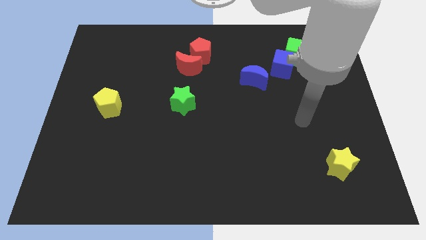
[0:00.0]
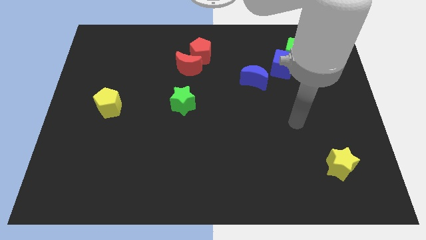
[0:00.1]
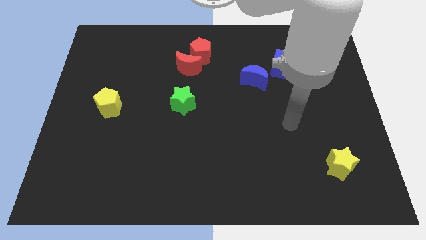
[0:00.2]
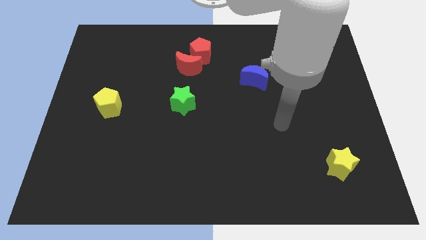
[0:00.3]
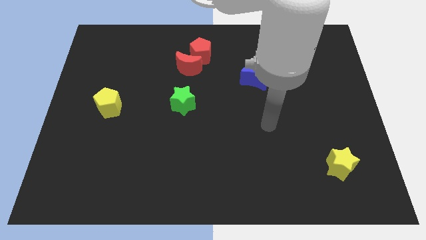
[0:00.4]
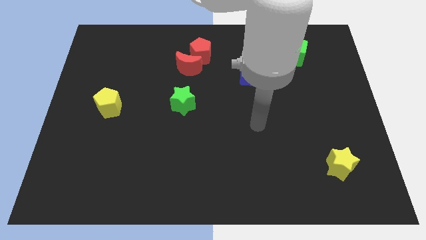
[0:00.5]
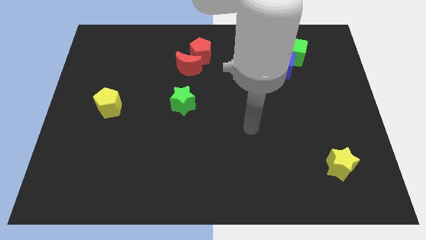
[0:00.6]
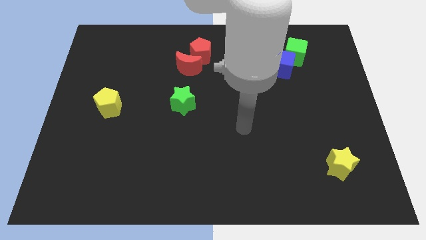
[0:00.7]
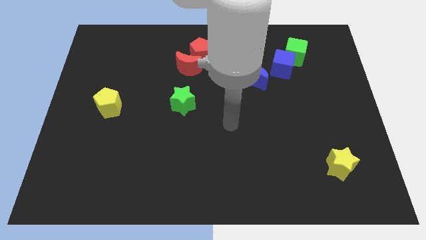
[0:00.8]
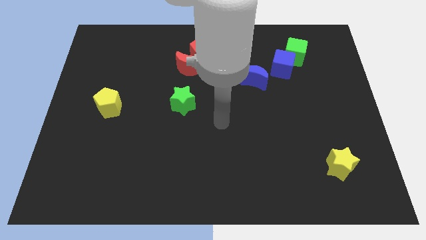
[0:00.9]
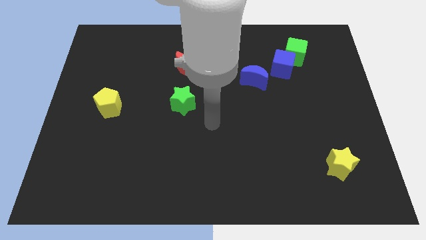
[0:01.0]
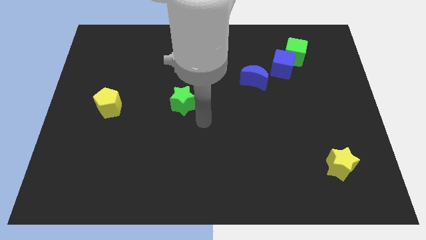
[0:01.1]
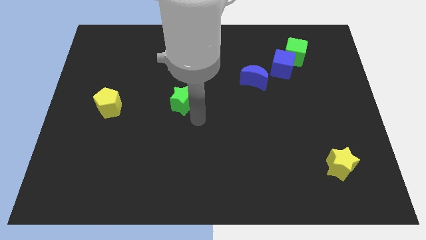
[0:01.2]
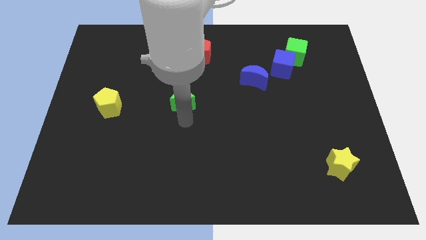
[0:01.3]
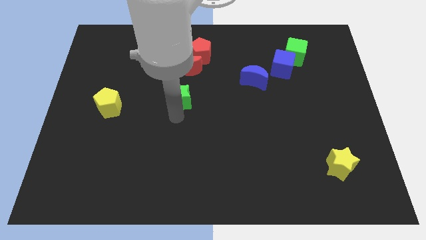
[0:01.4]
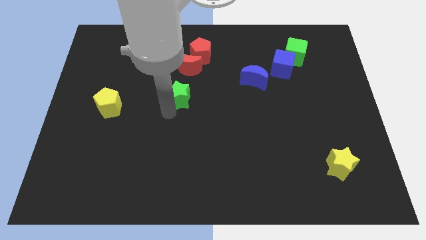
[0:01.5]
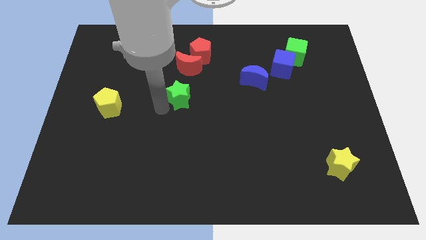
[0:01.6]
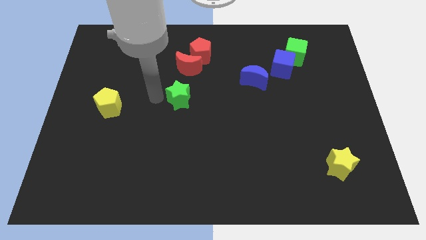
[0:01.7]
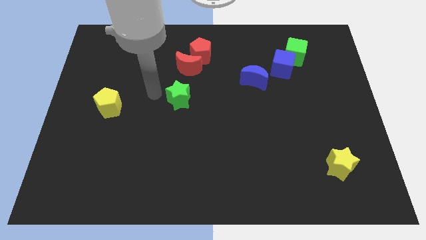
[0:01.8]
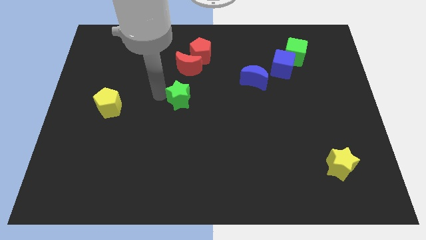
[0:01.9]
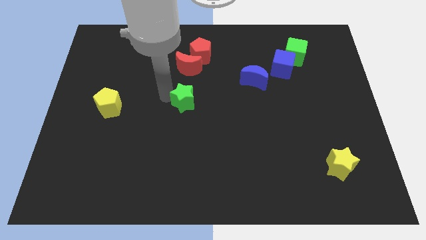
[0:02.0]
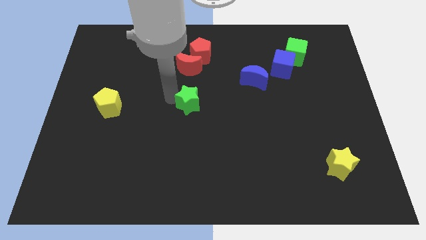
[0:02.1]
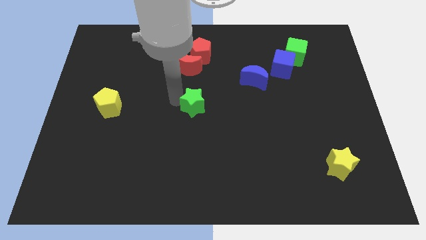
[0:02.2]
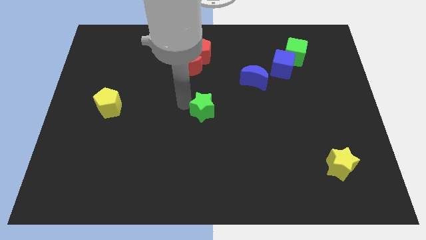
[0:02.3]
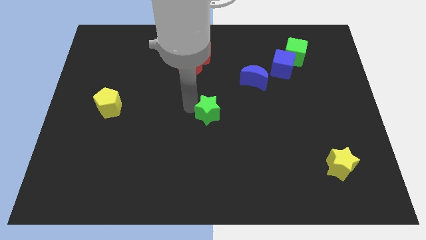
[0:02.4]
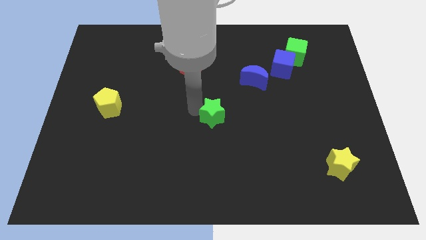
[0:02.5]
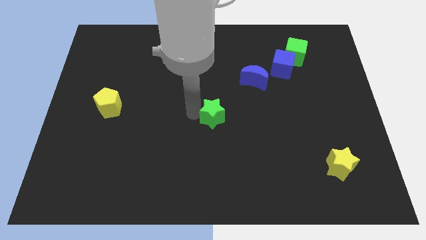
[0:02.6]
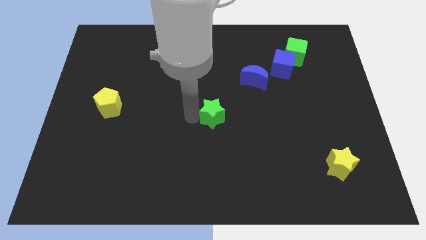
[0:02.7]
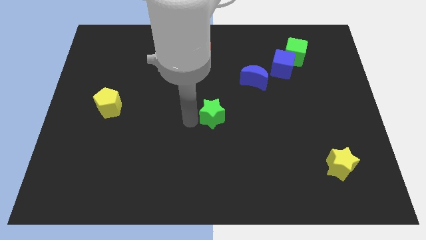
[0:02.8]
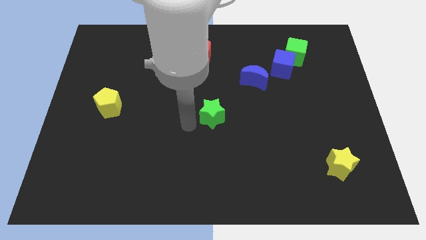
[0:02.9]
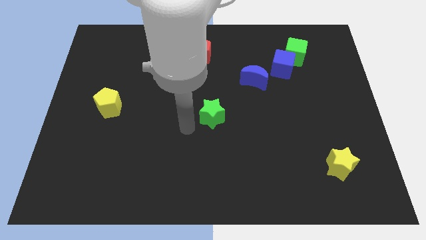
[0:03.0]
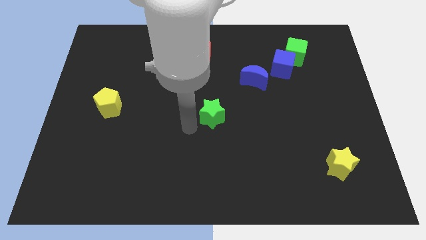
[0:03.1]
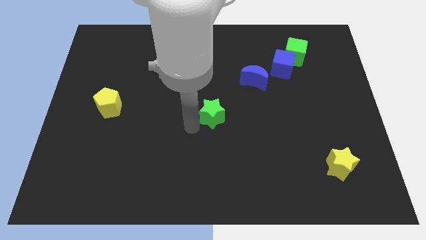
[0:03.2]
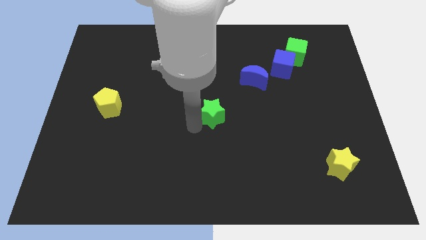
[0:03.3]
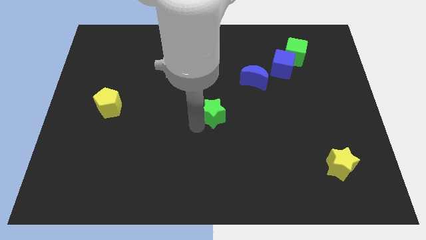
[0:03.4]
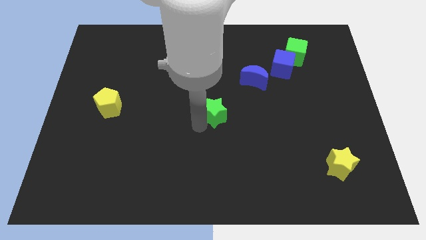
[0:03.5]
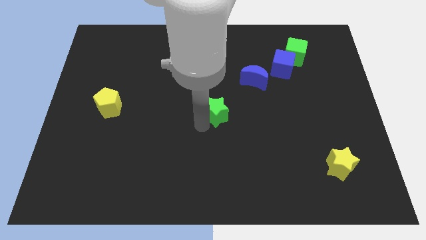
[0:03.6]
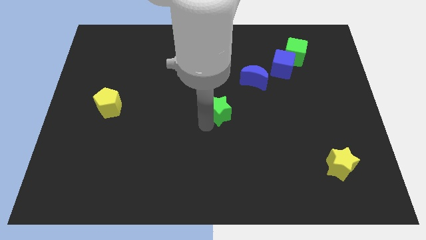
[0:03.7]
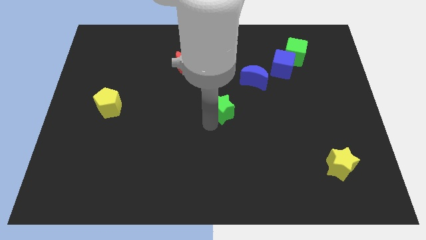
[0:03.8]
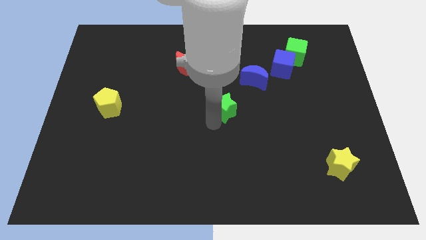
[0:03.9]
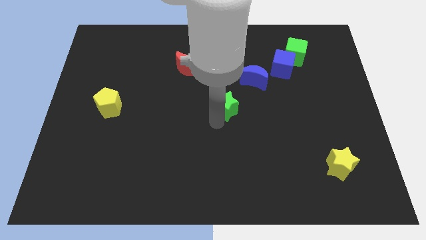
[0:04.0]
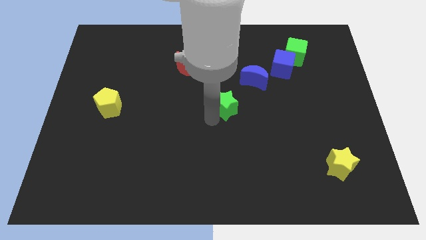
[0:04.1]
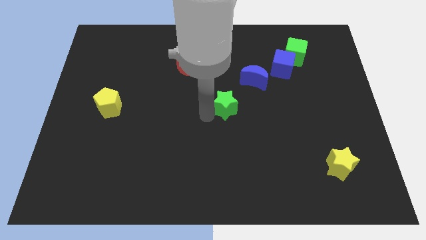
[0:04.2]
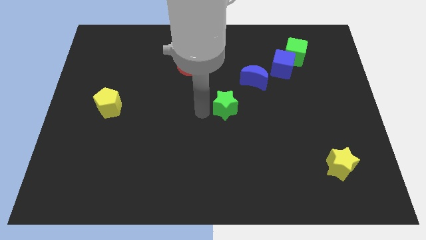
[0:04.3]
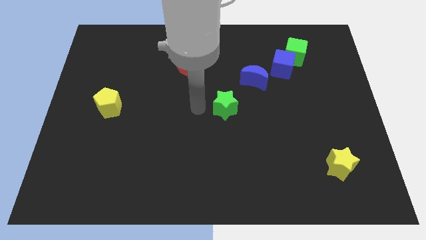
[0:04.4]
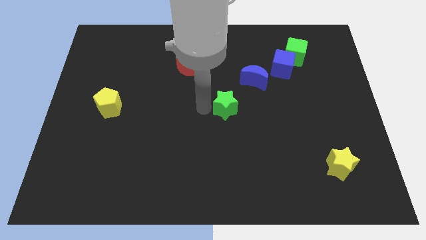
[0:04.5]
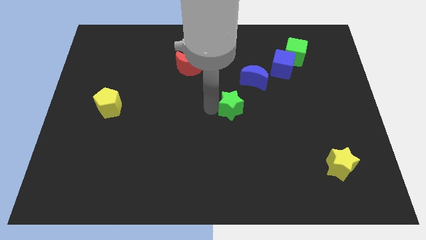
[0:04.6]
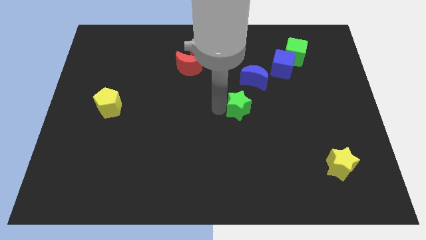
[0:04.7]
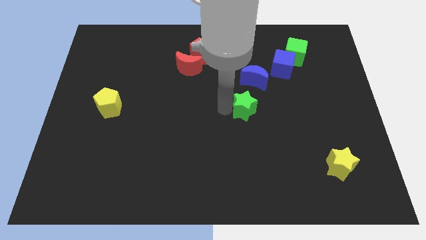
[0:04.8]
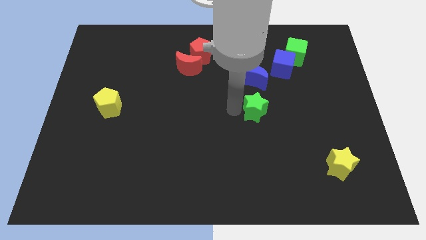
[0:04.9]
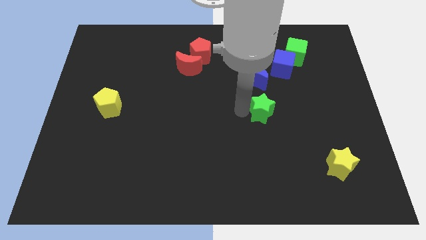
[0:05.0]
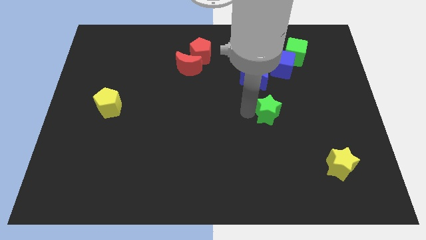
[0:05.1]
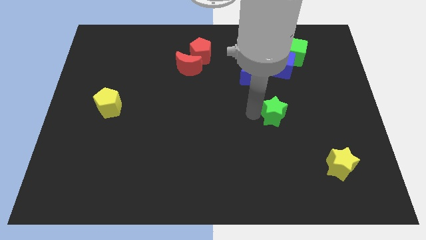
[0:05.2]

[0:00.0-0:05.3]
move the green star to the right

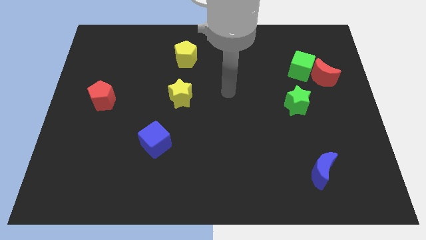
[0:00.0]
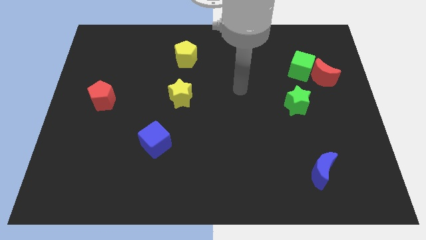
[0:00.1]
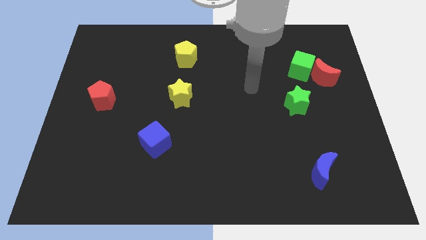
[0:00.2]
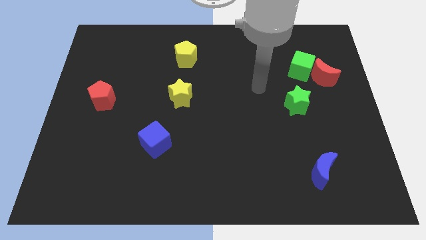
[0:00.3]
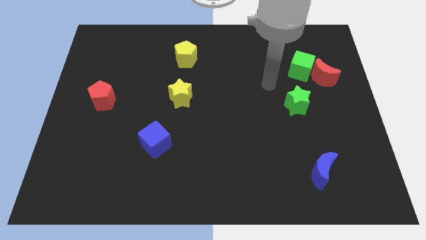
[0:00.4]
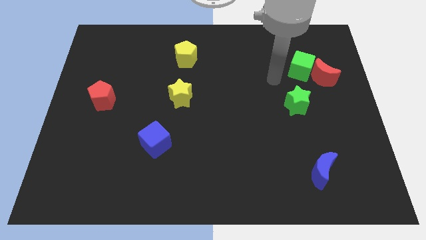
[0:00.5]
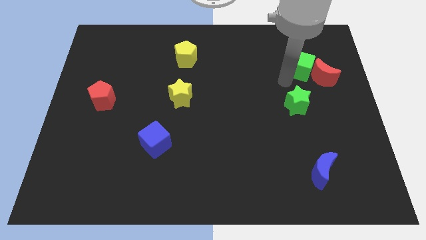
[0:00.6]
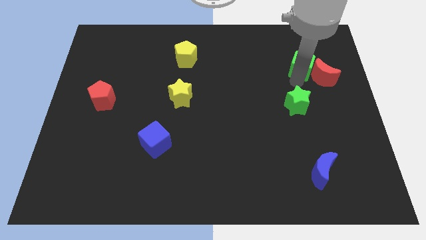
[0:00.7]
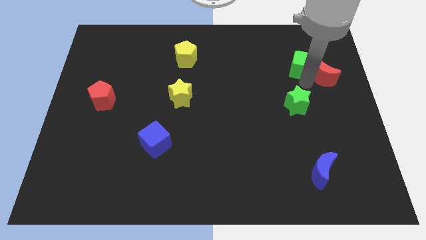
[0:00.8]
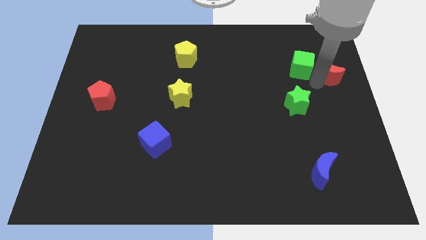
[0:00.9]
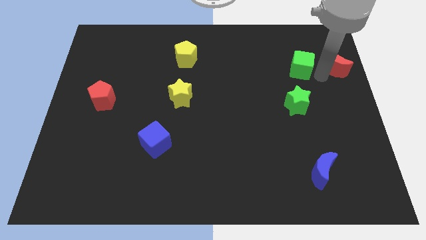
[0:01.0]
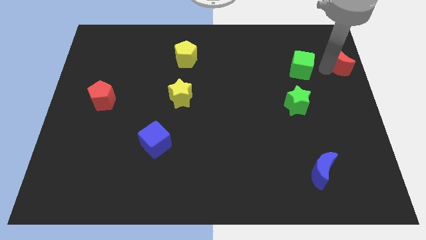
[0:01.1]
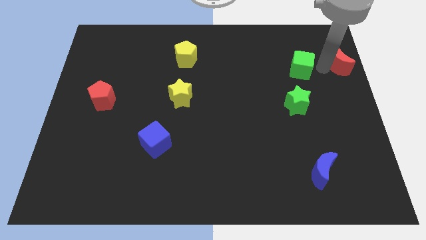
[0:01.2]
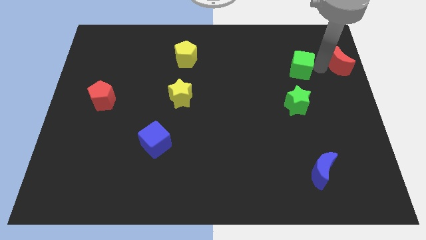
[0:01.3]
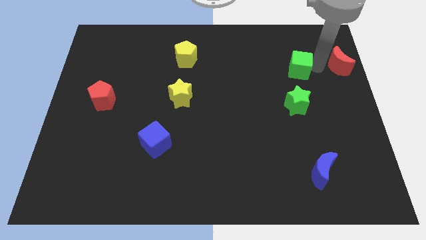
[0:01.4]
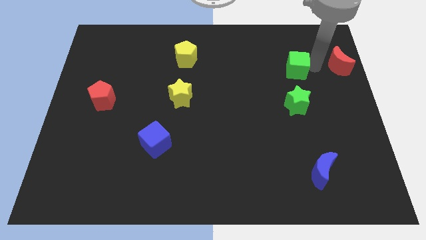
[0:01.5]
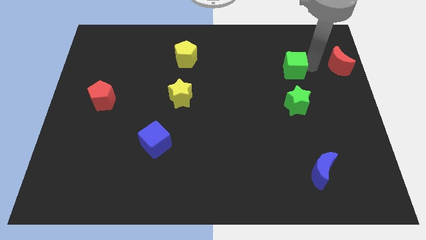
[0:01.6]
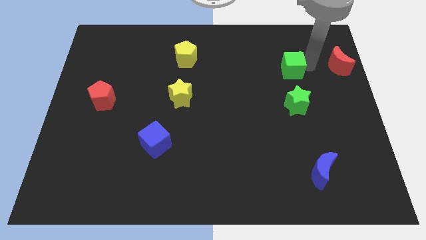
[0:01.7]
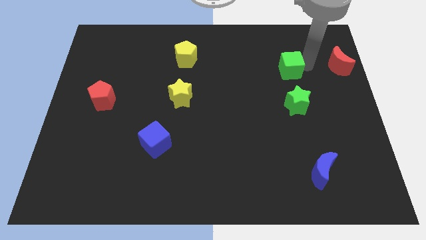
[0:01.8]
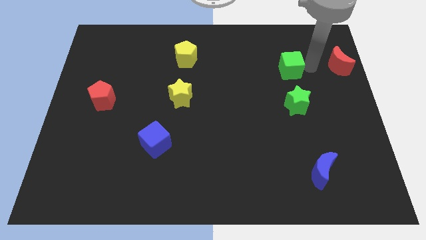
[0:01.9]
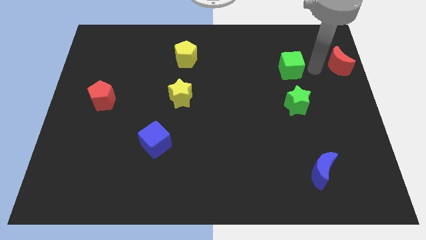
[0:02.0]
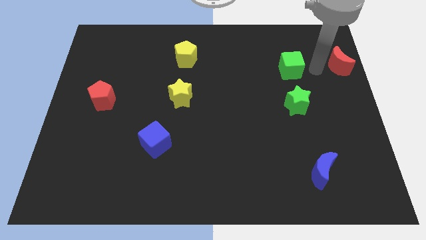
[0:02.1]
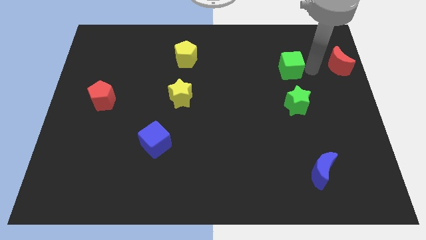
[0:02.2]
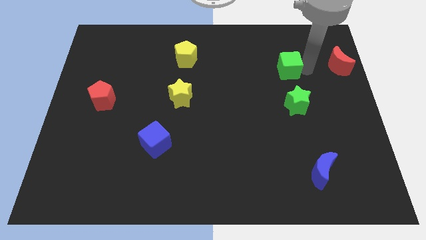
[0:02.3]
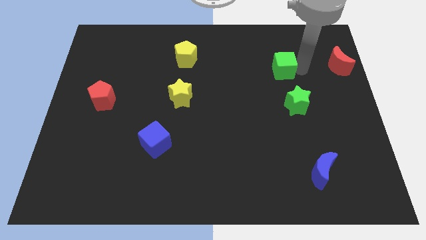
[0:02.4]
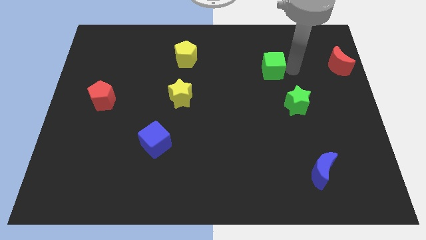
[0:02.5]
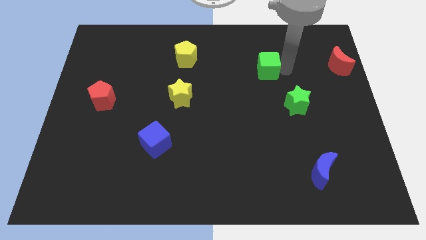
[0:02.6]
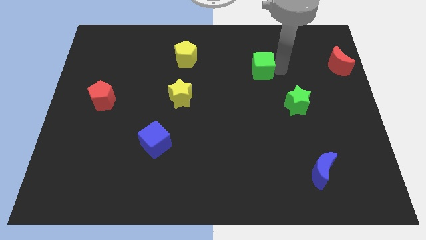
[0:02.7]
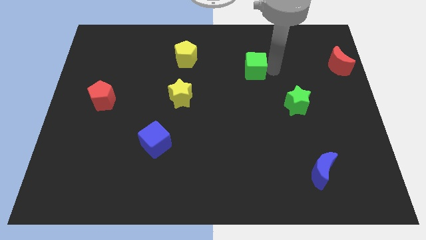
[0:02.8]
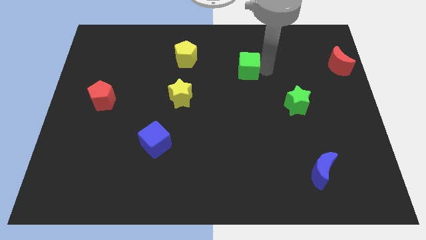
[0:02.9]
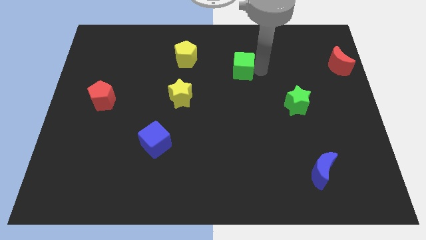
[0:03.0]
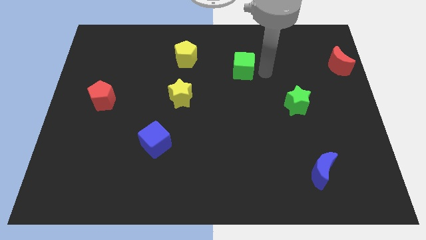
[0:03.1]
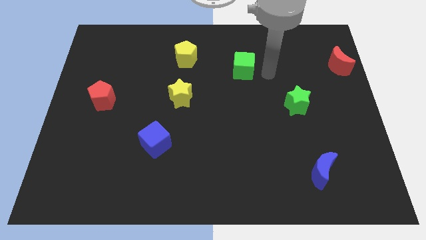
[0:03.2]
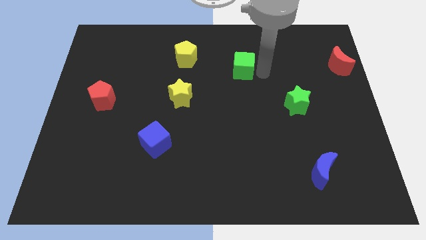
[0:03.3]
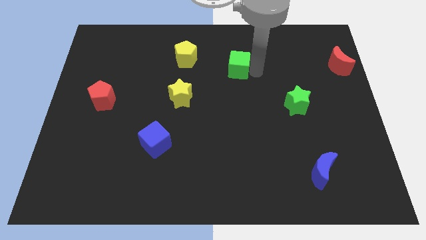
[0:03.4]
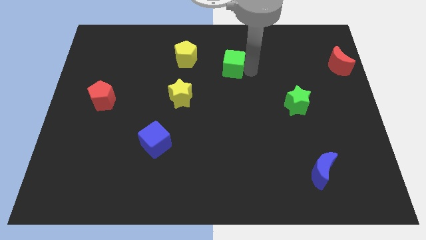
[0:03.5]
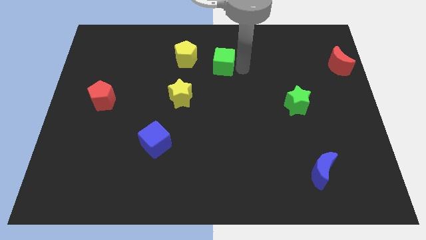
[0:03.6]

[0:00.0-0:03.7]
slide the green cube to the left
